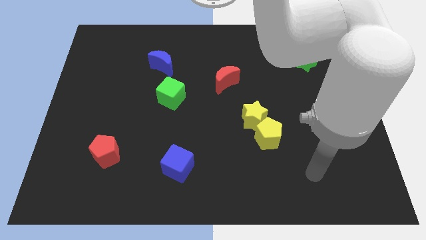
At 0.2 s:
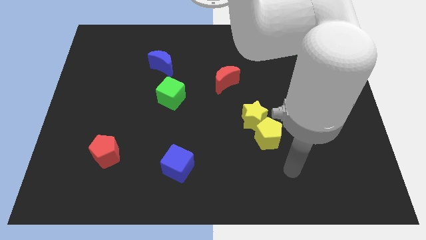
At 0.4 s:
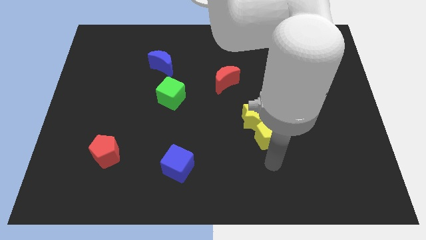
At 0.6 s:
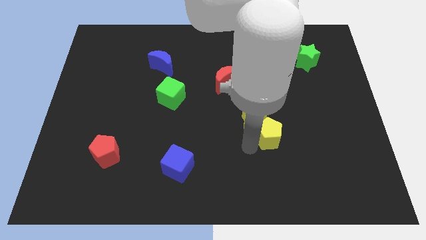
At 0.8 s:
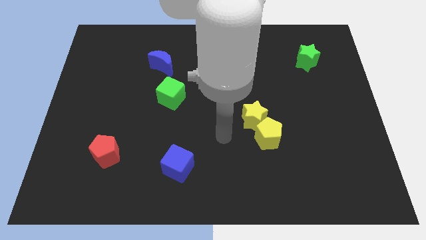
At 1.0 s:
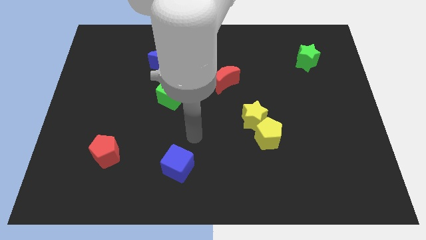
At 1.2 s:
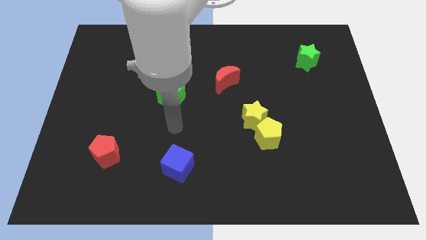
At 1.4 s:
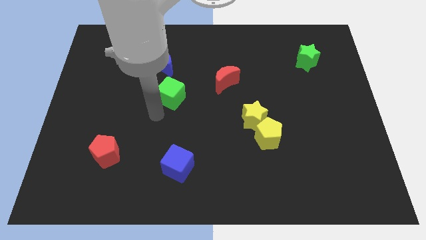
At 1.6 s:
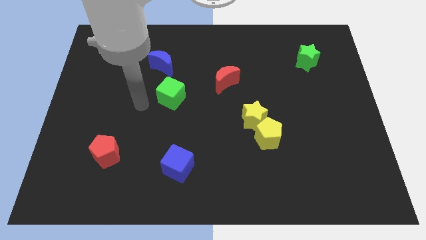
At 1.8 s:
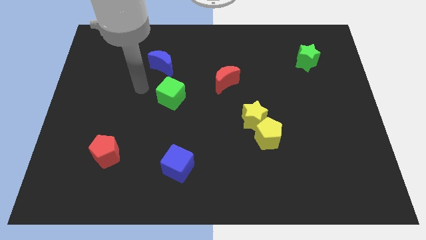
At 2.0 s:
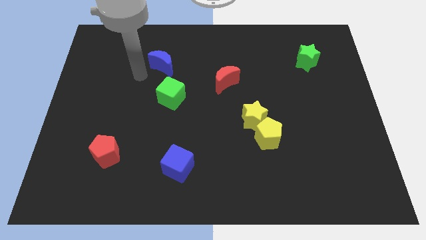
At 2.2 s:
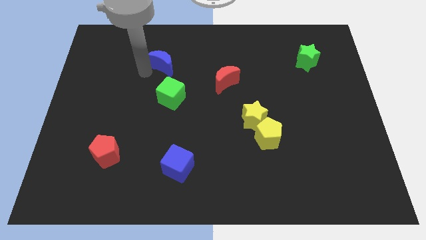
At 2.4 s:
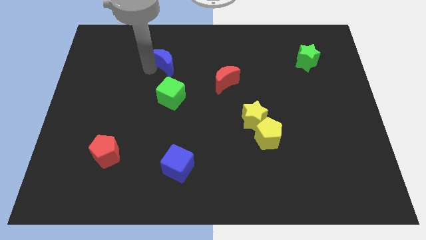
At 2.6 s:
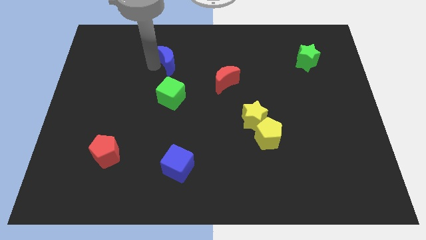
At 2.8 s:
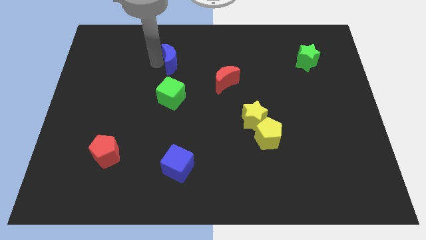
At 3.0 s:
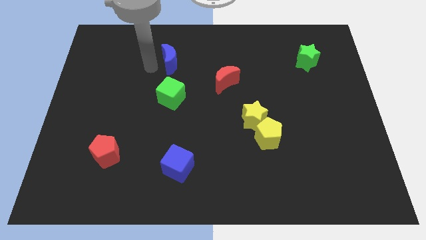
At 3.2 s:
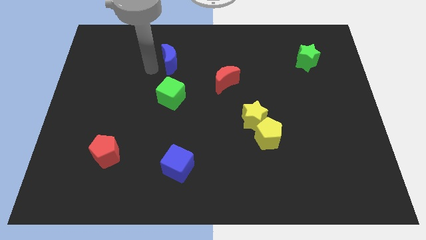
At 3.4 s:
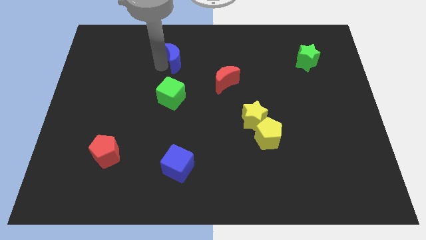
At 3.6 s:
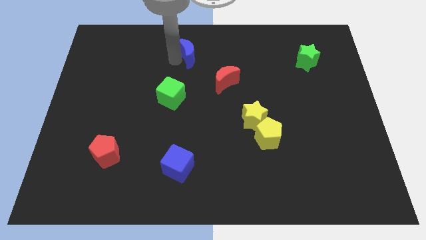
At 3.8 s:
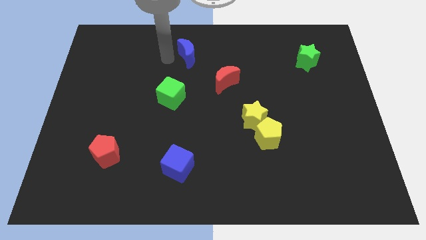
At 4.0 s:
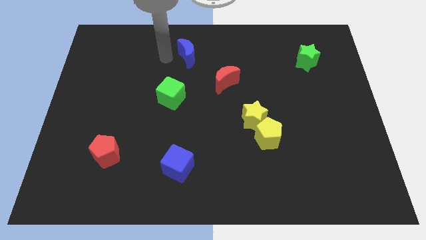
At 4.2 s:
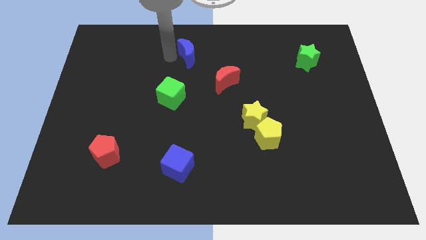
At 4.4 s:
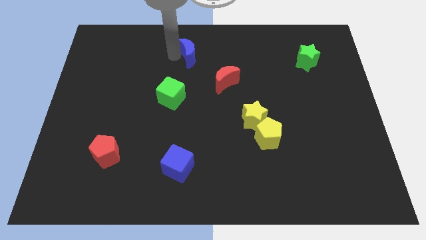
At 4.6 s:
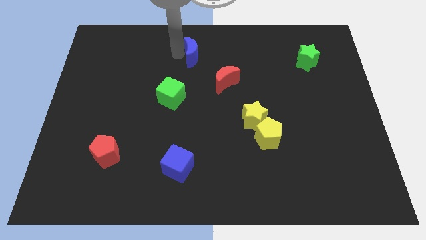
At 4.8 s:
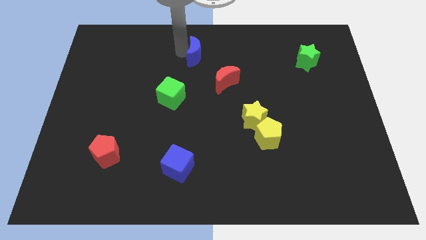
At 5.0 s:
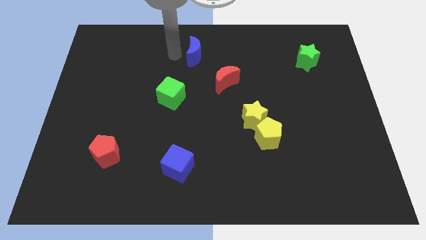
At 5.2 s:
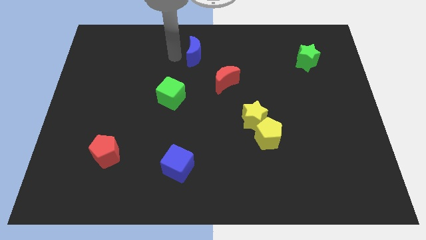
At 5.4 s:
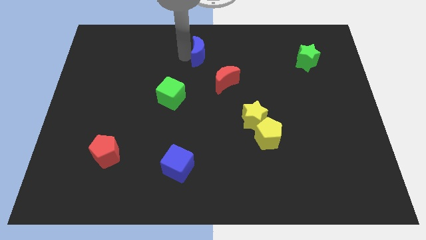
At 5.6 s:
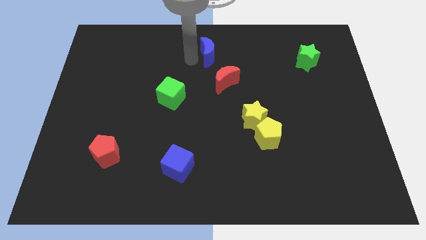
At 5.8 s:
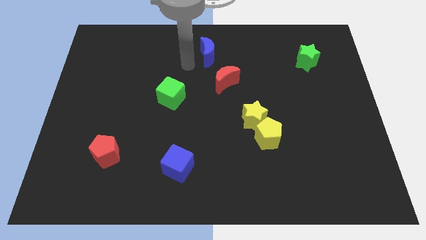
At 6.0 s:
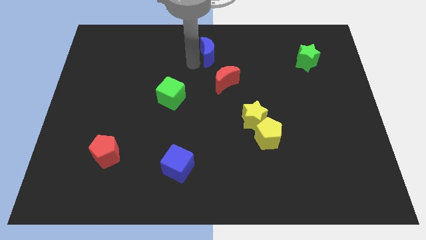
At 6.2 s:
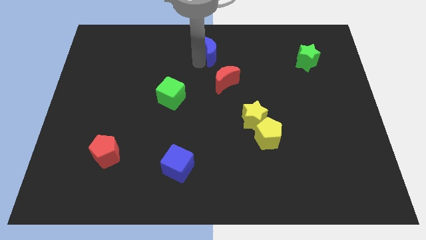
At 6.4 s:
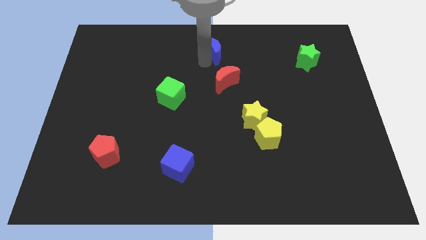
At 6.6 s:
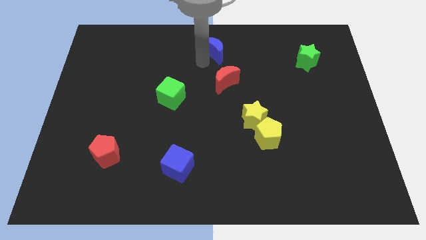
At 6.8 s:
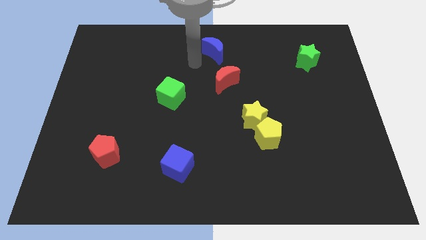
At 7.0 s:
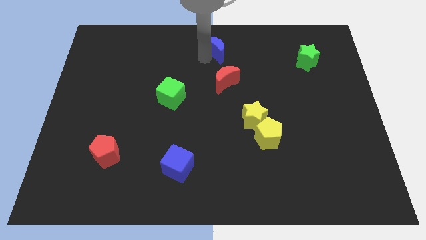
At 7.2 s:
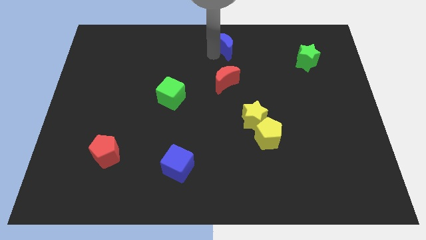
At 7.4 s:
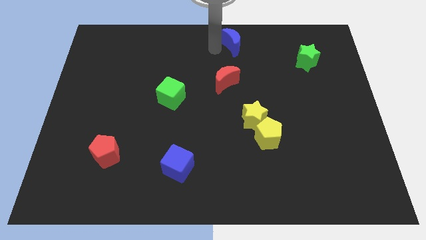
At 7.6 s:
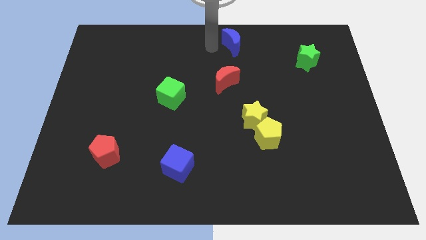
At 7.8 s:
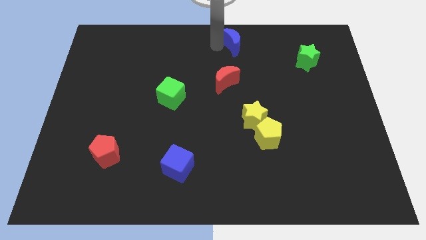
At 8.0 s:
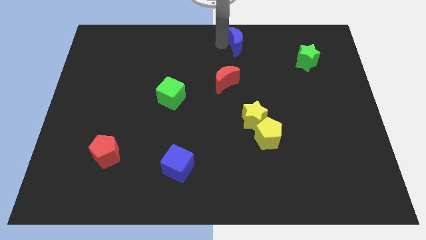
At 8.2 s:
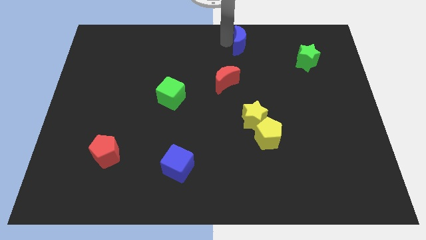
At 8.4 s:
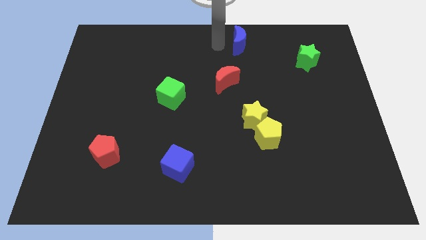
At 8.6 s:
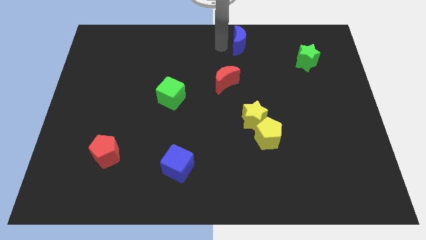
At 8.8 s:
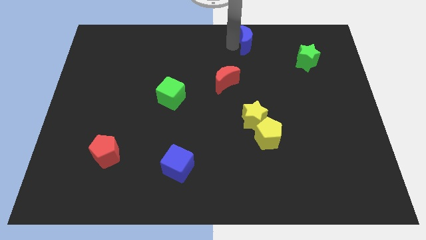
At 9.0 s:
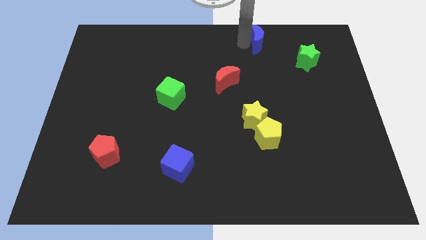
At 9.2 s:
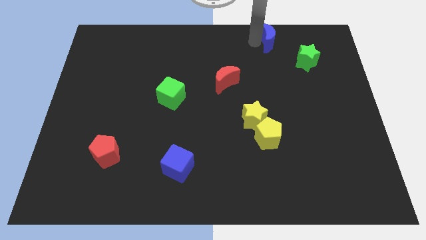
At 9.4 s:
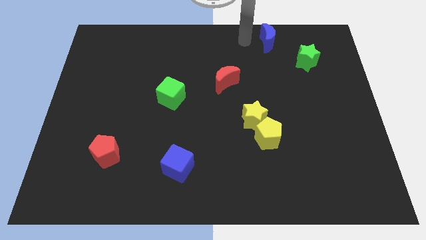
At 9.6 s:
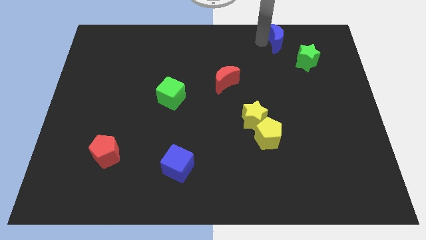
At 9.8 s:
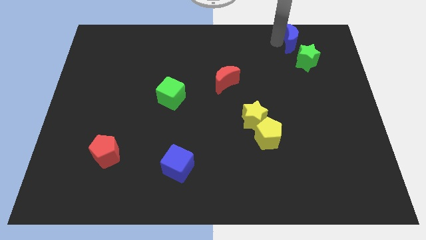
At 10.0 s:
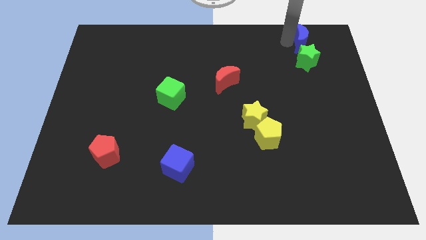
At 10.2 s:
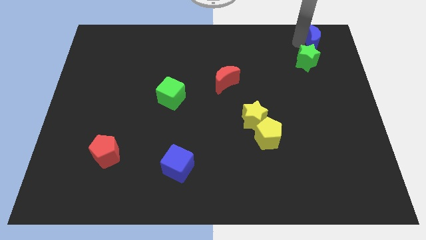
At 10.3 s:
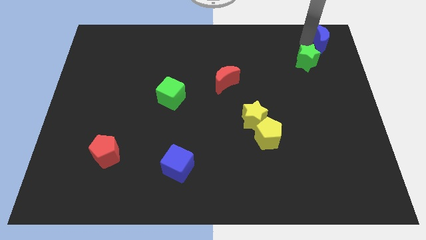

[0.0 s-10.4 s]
slide the blue moon to the top right
